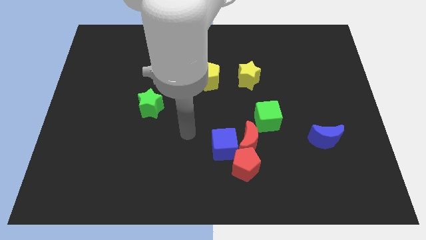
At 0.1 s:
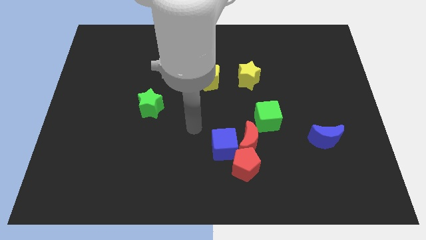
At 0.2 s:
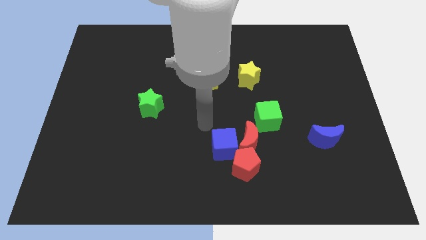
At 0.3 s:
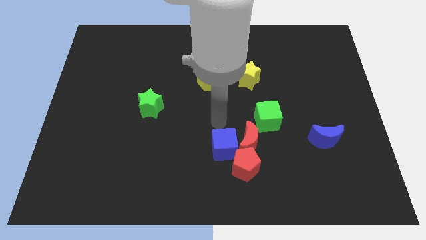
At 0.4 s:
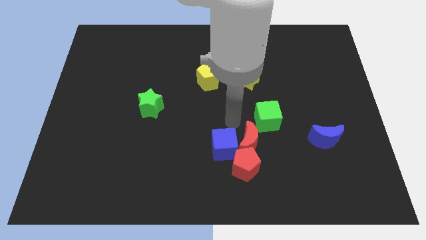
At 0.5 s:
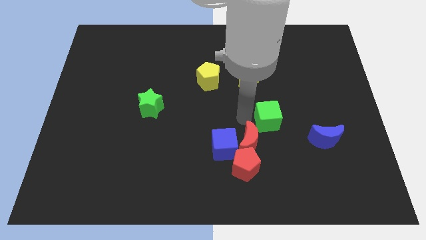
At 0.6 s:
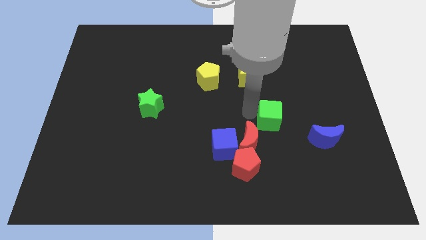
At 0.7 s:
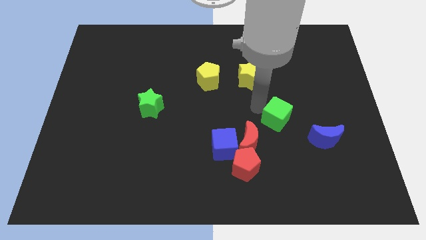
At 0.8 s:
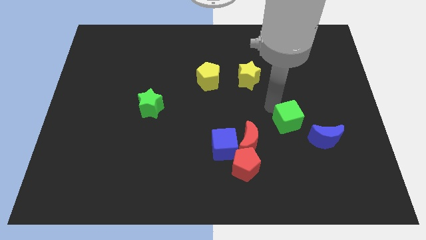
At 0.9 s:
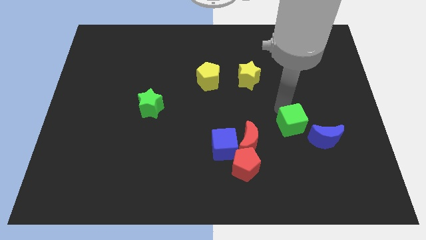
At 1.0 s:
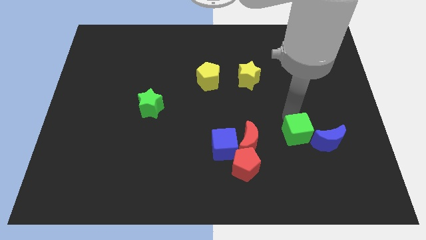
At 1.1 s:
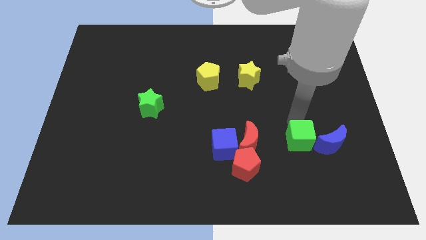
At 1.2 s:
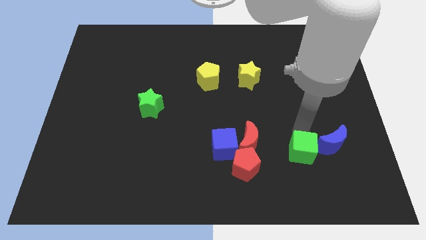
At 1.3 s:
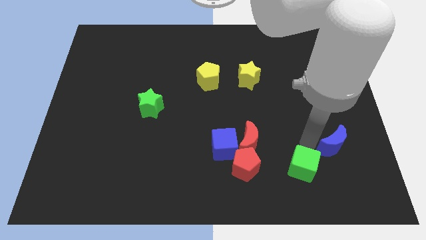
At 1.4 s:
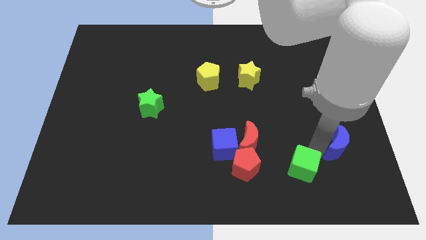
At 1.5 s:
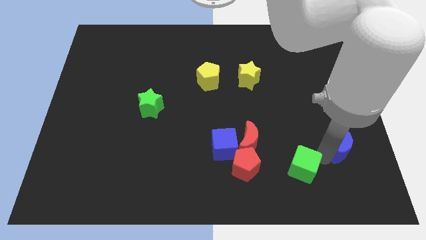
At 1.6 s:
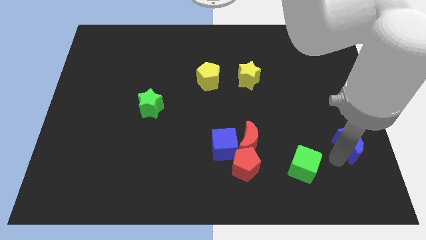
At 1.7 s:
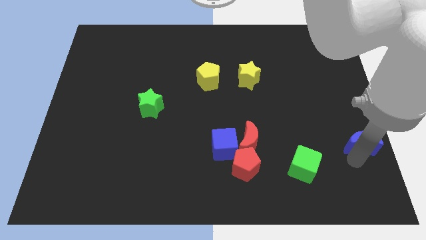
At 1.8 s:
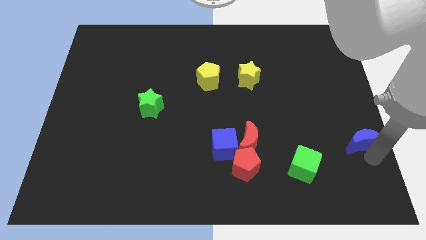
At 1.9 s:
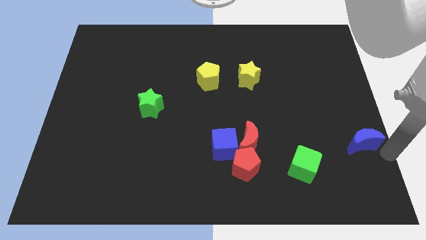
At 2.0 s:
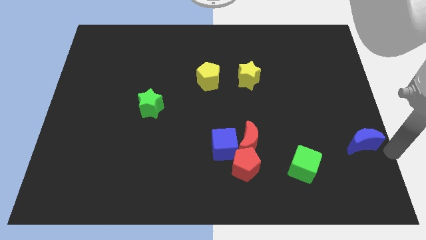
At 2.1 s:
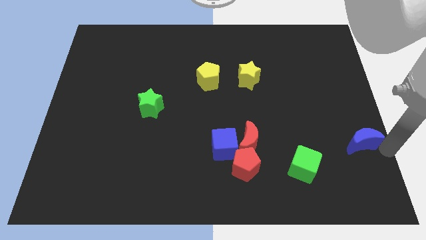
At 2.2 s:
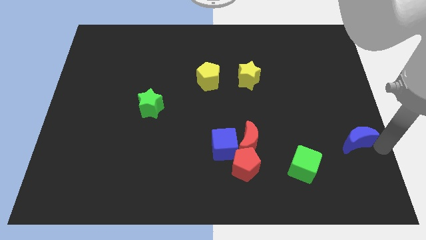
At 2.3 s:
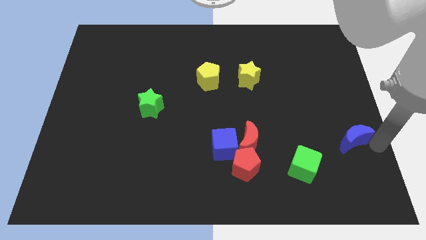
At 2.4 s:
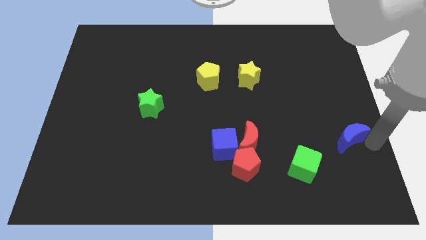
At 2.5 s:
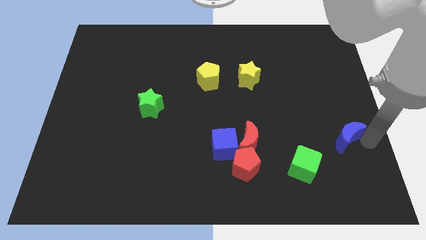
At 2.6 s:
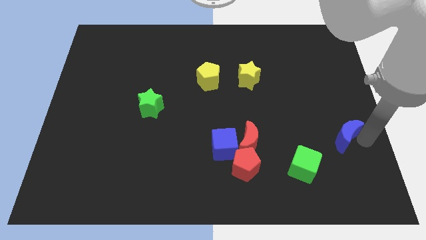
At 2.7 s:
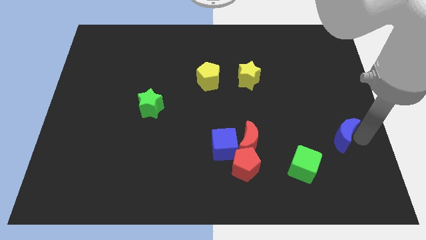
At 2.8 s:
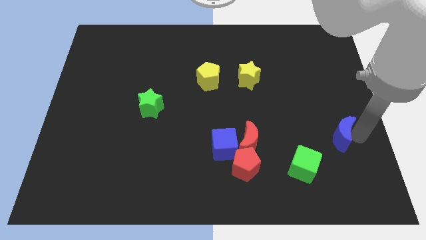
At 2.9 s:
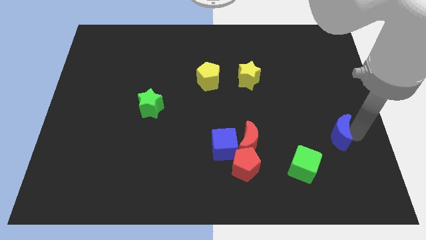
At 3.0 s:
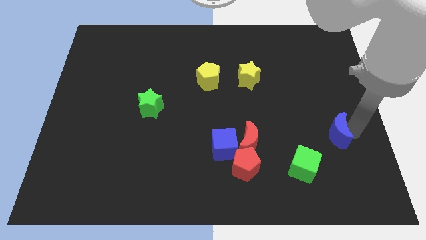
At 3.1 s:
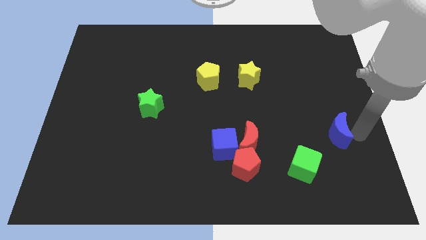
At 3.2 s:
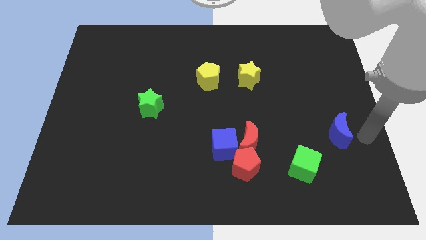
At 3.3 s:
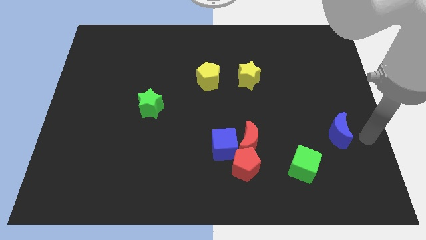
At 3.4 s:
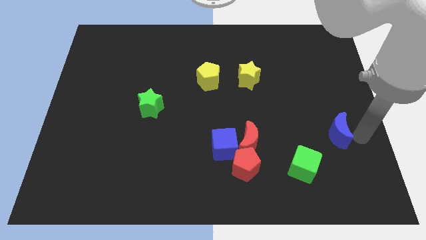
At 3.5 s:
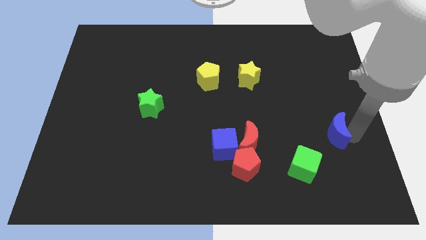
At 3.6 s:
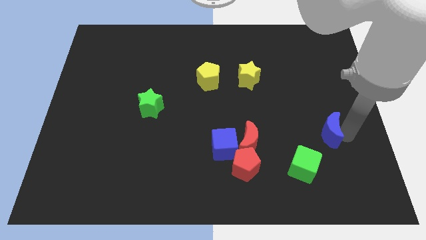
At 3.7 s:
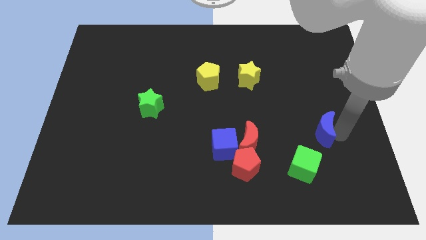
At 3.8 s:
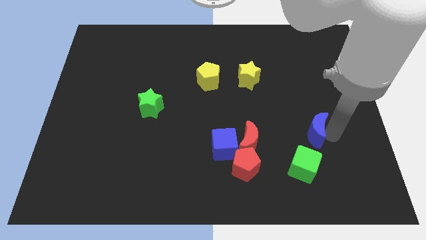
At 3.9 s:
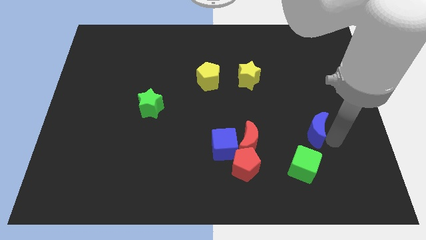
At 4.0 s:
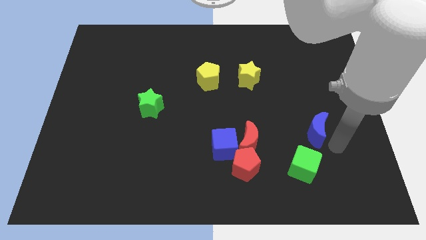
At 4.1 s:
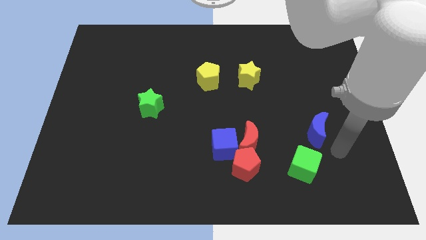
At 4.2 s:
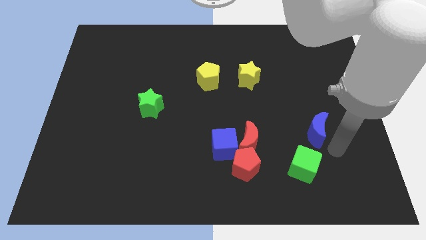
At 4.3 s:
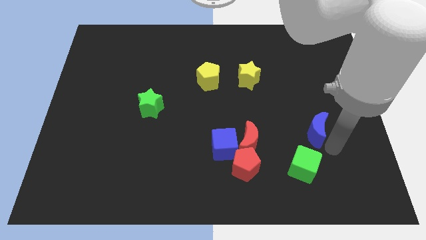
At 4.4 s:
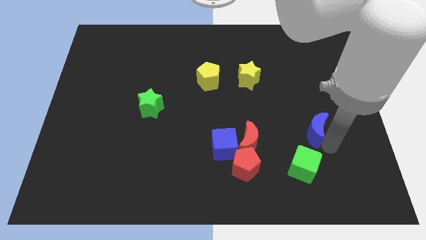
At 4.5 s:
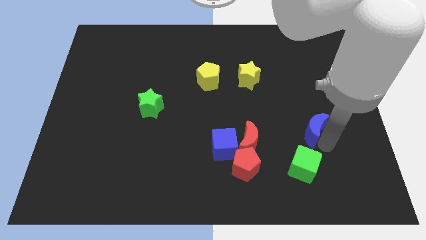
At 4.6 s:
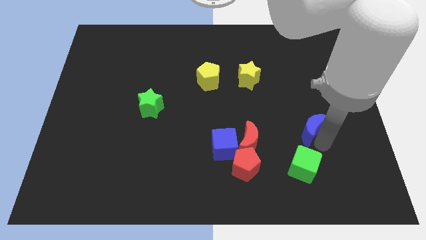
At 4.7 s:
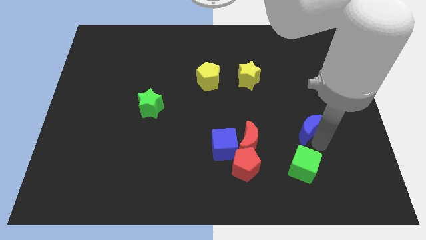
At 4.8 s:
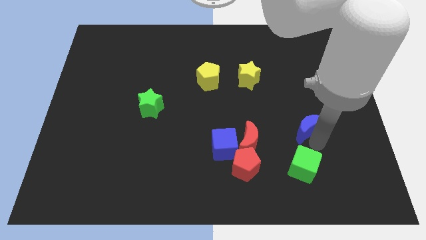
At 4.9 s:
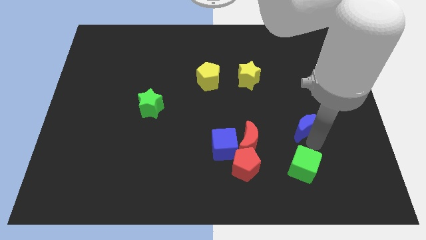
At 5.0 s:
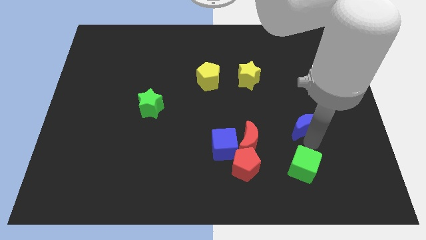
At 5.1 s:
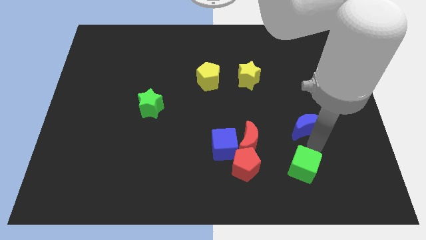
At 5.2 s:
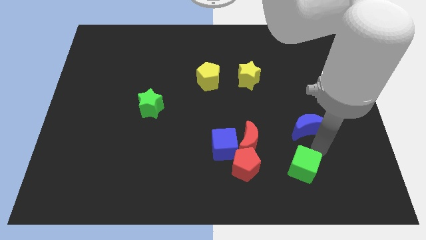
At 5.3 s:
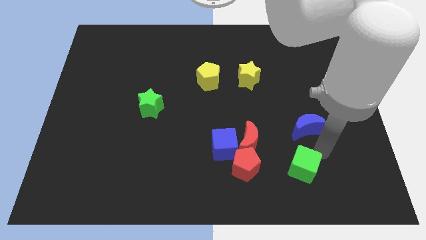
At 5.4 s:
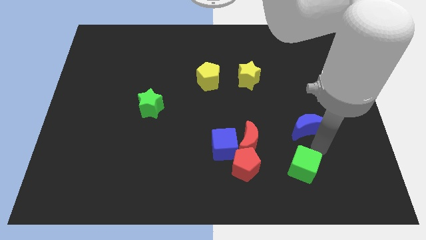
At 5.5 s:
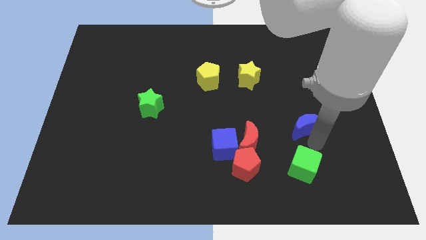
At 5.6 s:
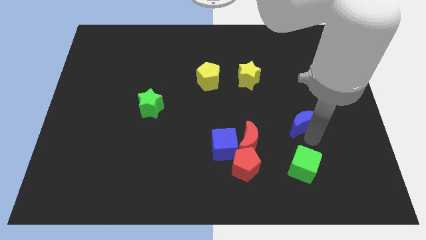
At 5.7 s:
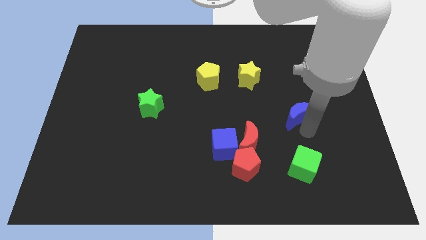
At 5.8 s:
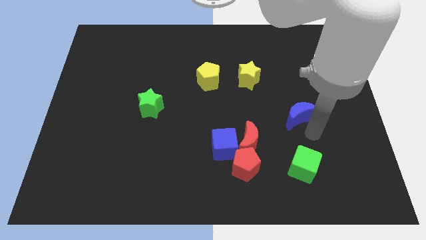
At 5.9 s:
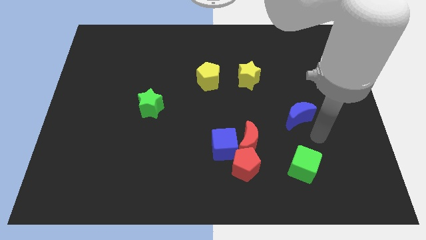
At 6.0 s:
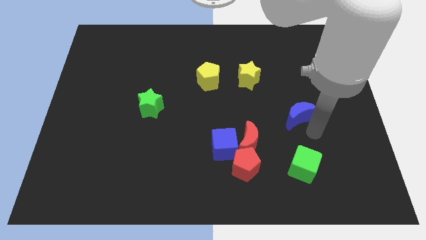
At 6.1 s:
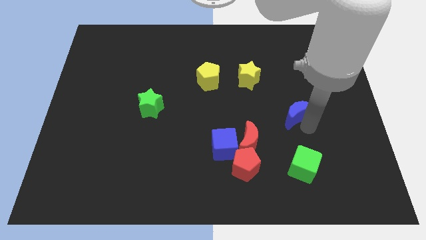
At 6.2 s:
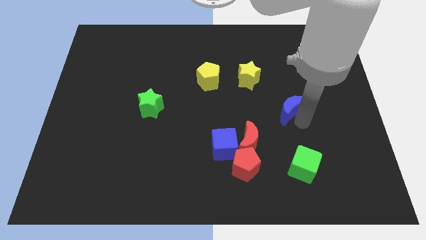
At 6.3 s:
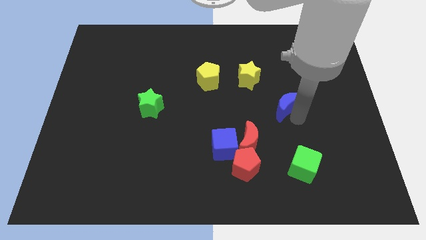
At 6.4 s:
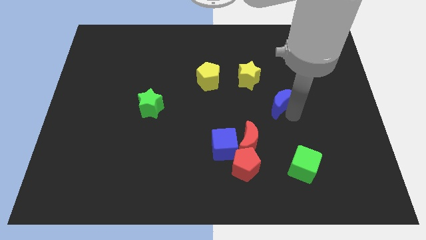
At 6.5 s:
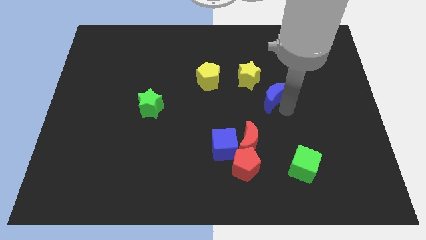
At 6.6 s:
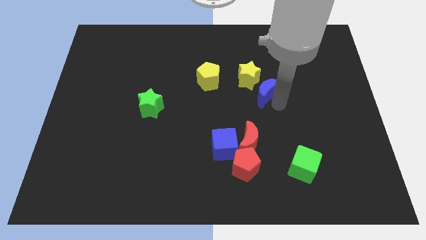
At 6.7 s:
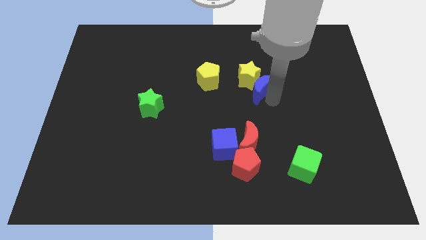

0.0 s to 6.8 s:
move the blue moon next to the yellow star

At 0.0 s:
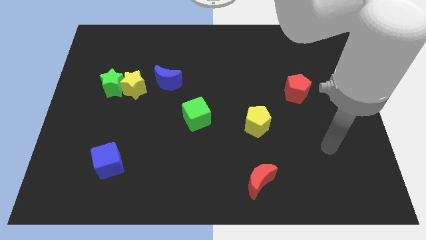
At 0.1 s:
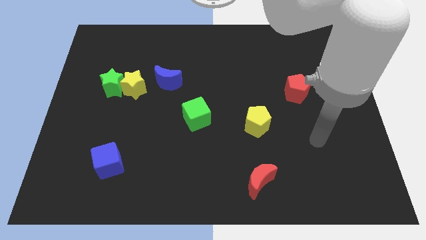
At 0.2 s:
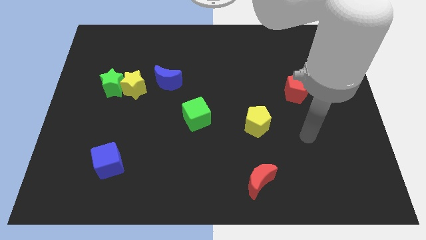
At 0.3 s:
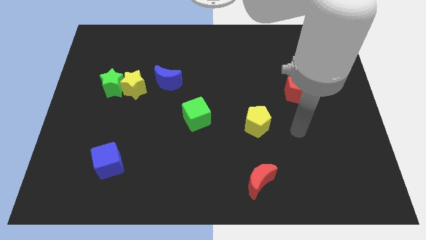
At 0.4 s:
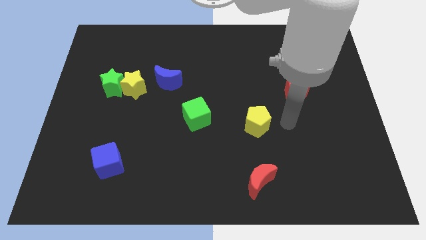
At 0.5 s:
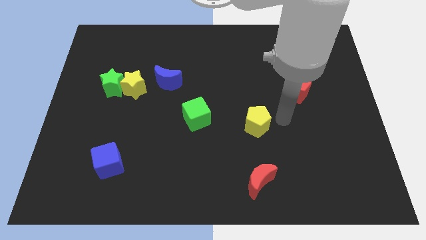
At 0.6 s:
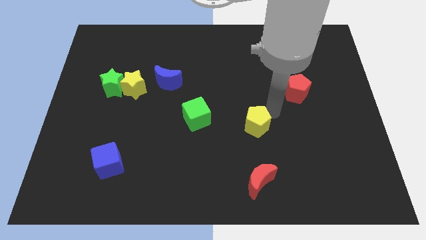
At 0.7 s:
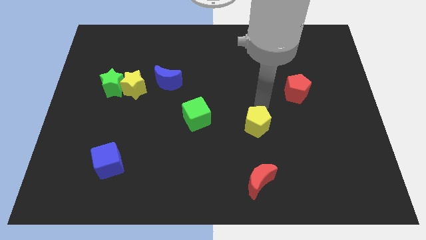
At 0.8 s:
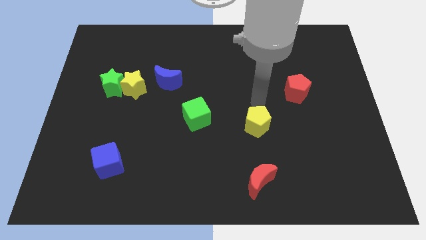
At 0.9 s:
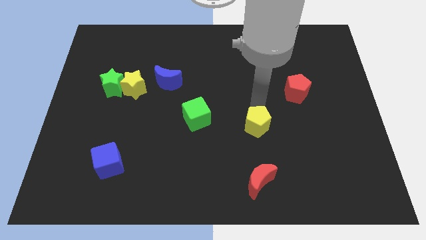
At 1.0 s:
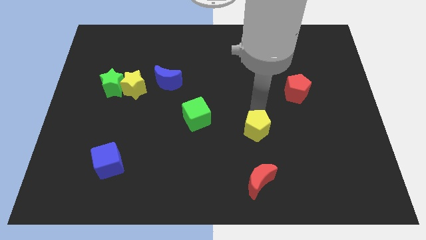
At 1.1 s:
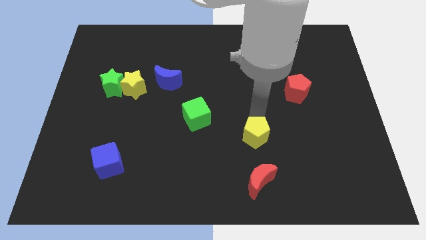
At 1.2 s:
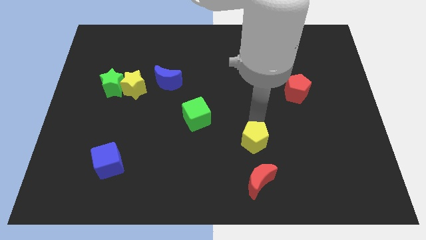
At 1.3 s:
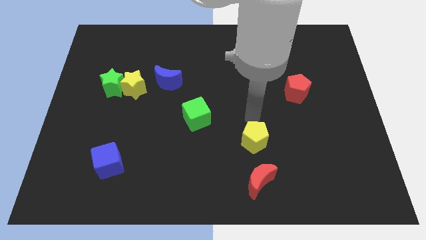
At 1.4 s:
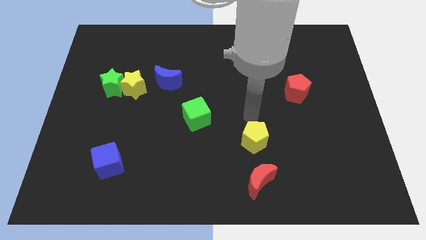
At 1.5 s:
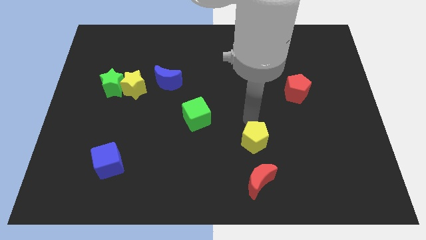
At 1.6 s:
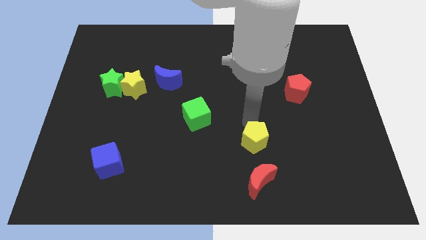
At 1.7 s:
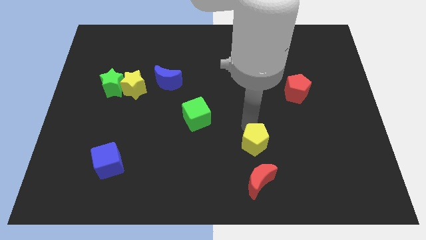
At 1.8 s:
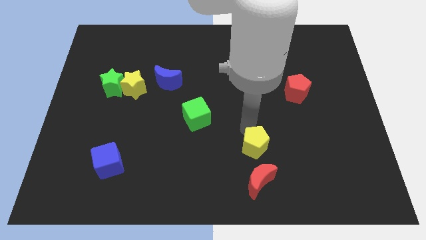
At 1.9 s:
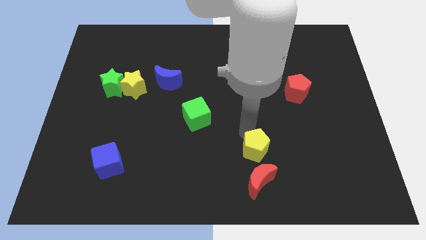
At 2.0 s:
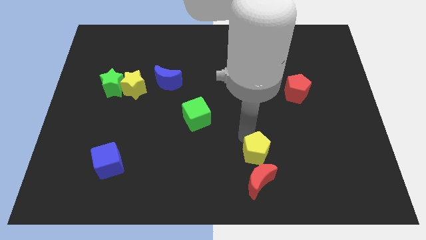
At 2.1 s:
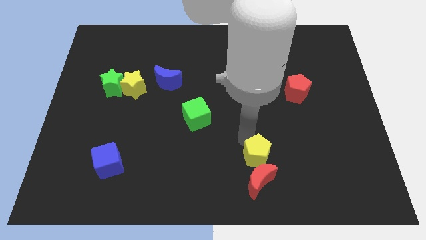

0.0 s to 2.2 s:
push the yellow pentagon close to the red moon
